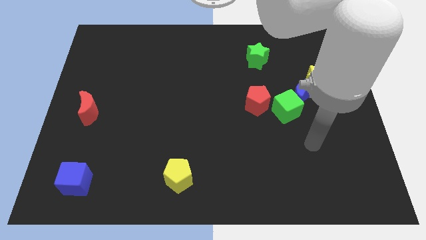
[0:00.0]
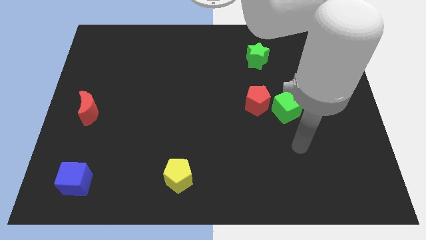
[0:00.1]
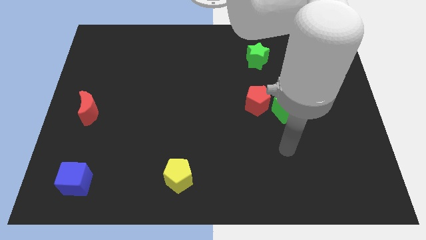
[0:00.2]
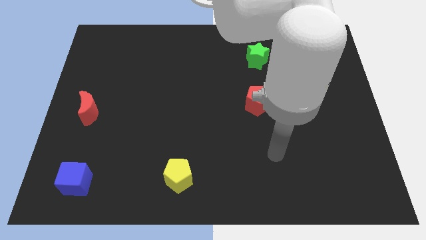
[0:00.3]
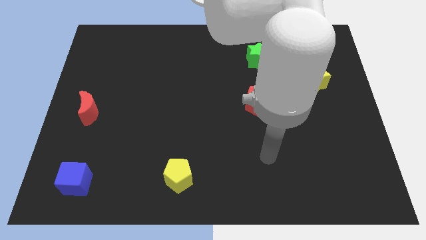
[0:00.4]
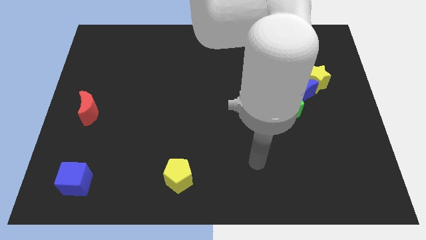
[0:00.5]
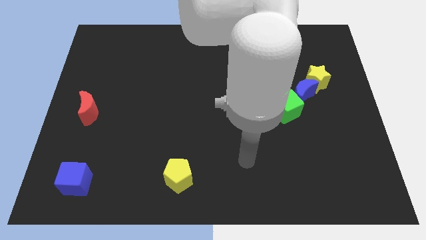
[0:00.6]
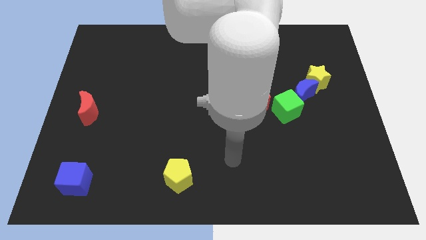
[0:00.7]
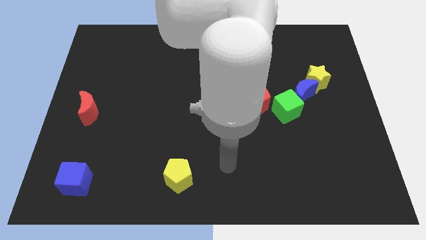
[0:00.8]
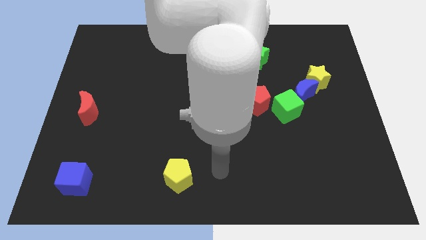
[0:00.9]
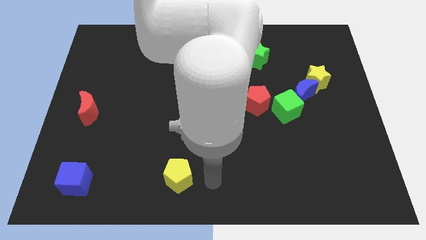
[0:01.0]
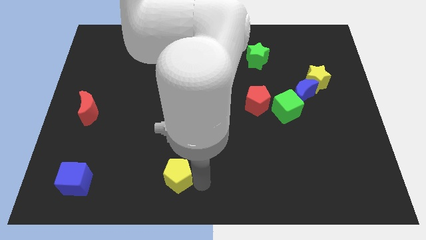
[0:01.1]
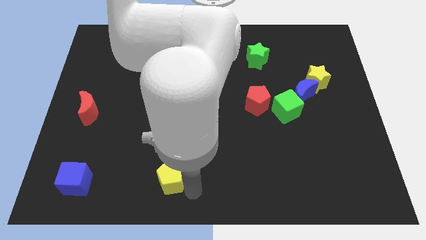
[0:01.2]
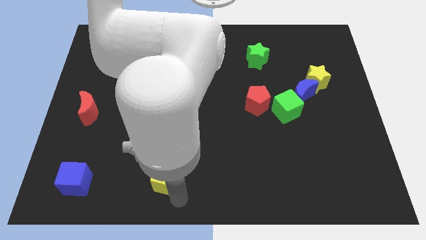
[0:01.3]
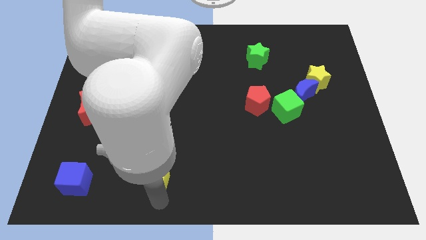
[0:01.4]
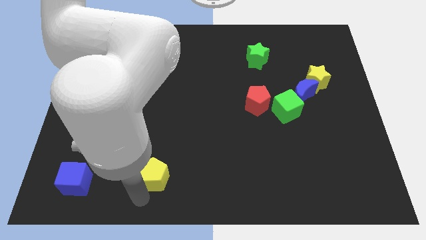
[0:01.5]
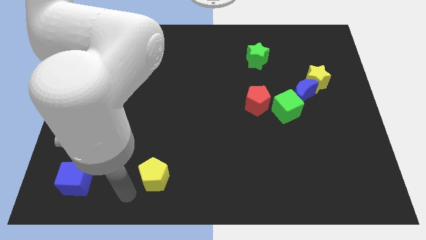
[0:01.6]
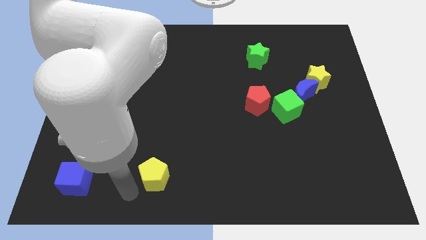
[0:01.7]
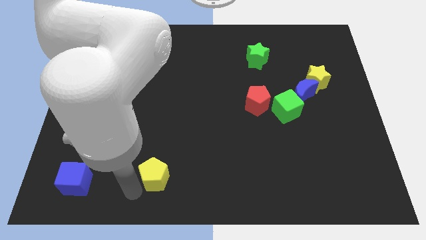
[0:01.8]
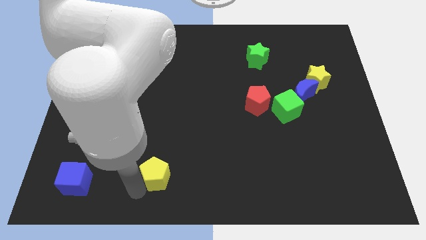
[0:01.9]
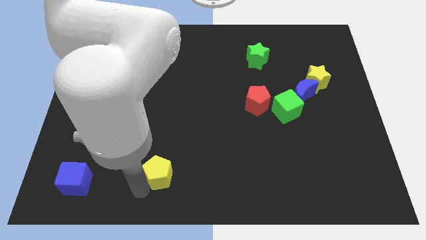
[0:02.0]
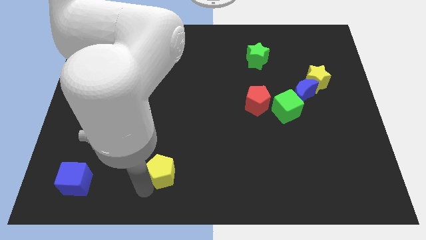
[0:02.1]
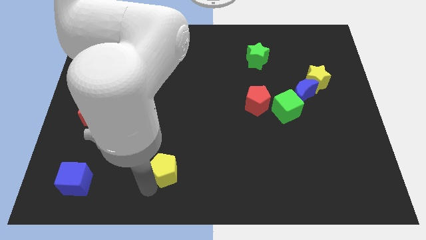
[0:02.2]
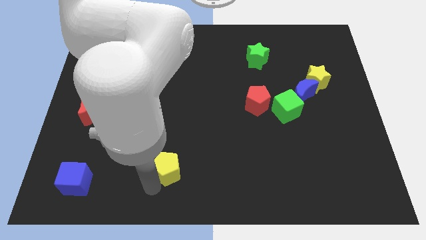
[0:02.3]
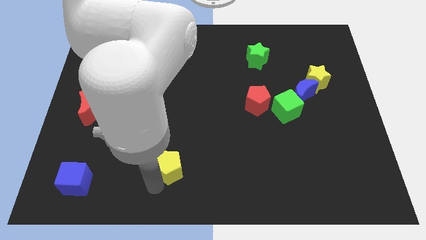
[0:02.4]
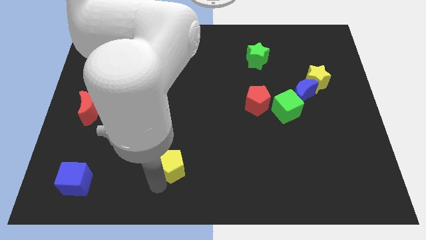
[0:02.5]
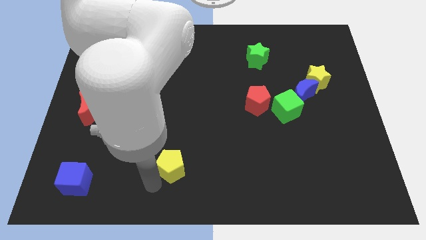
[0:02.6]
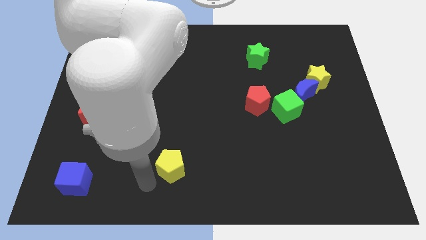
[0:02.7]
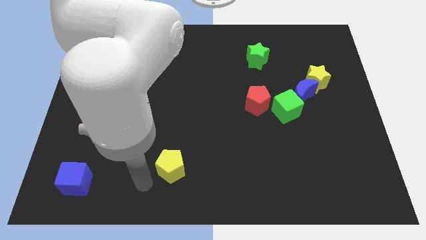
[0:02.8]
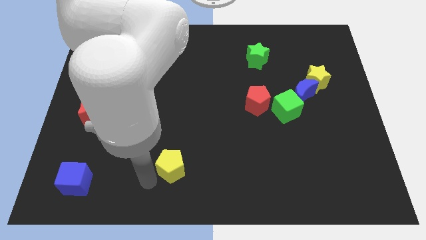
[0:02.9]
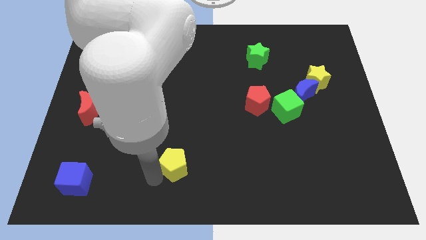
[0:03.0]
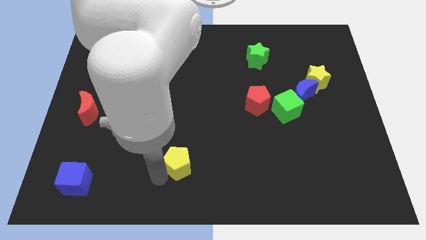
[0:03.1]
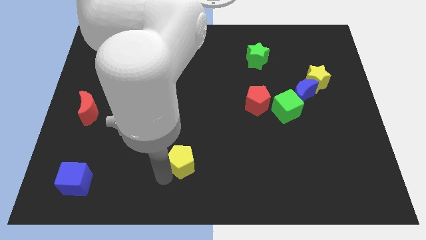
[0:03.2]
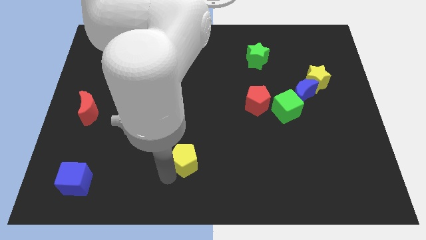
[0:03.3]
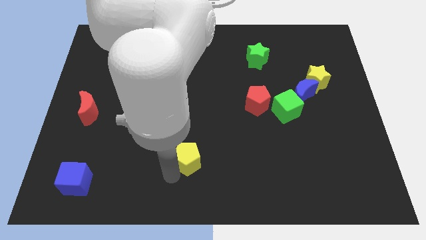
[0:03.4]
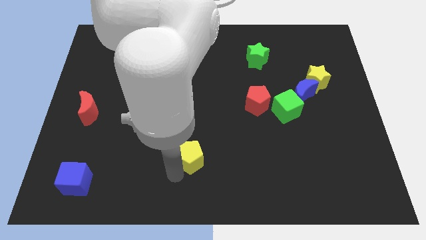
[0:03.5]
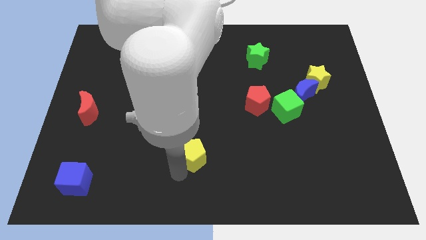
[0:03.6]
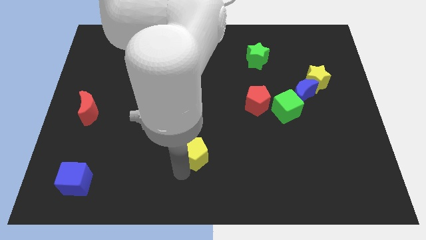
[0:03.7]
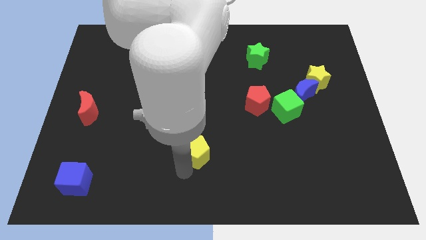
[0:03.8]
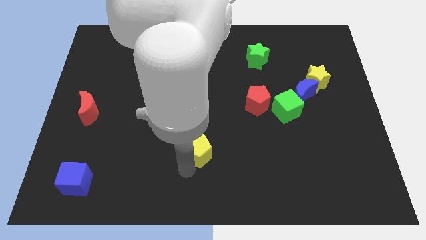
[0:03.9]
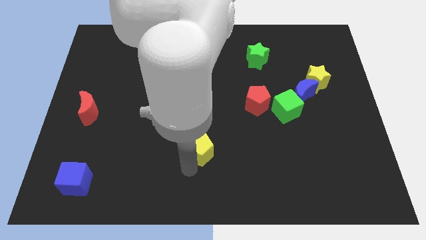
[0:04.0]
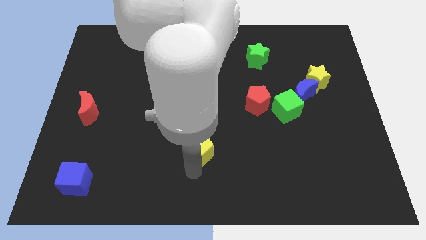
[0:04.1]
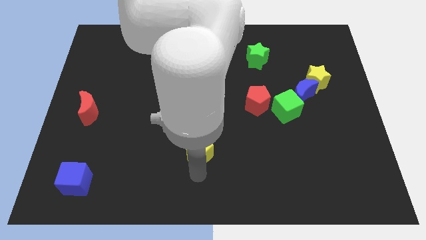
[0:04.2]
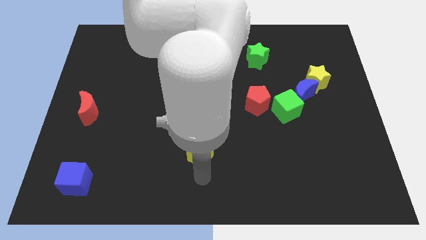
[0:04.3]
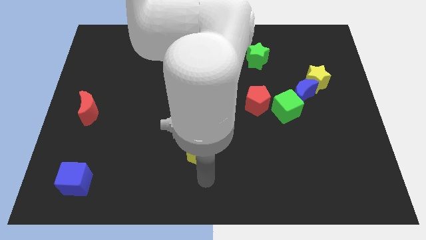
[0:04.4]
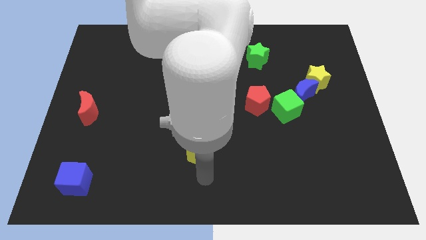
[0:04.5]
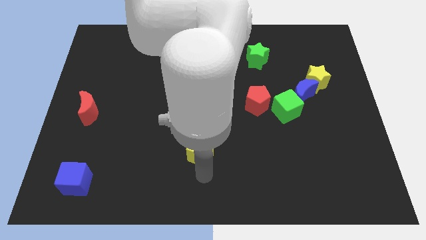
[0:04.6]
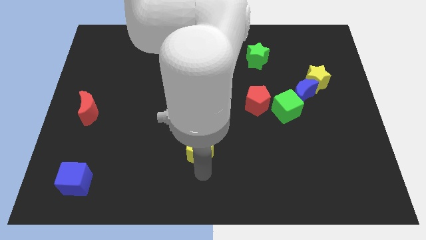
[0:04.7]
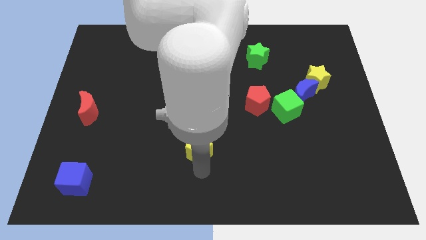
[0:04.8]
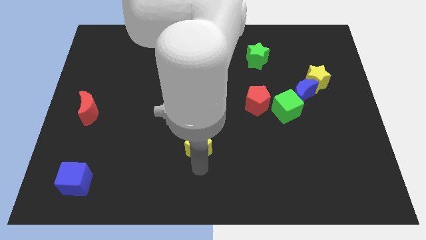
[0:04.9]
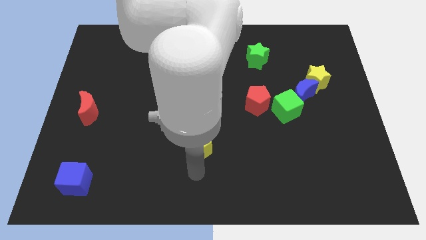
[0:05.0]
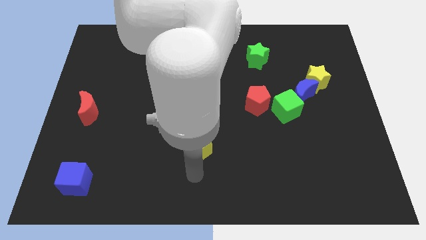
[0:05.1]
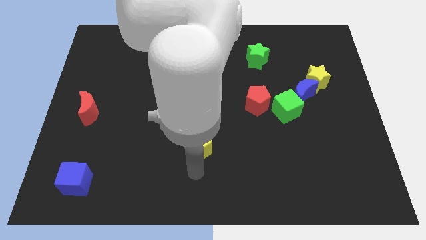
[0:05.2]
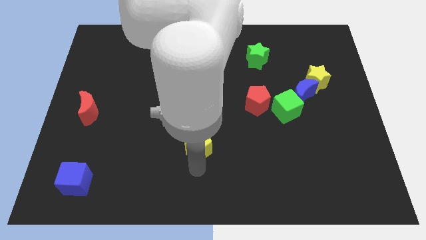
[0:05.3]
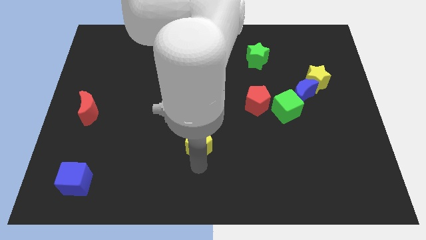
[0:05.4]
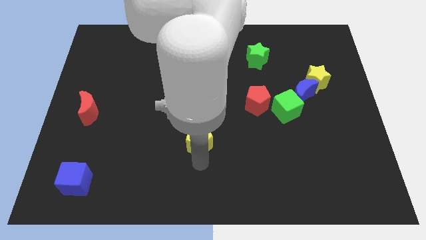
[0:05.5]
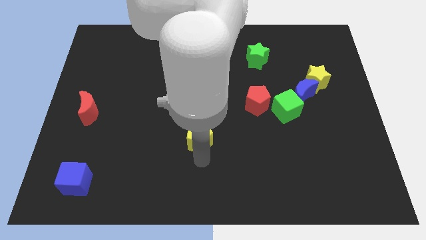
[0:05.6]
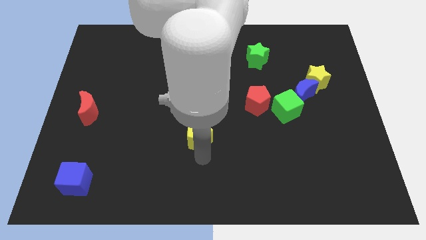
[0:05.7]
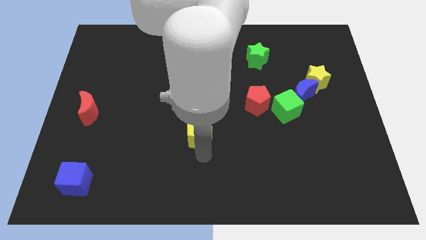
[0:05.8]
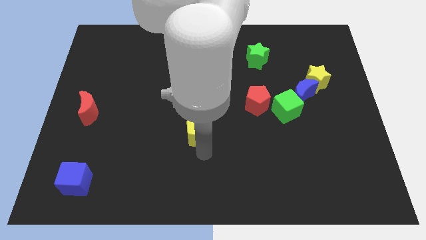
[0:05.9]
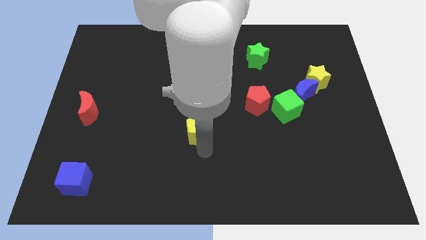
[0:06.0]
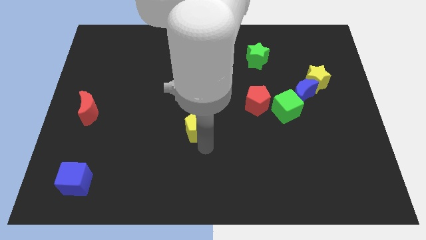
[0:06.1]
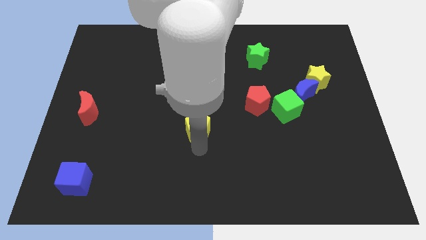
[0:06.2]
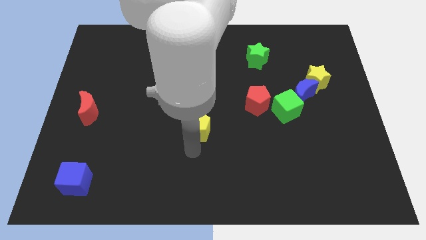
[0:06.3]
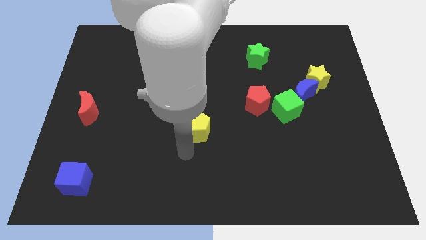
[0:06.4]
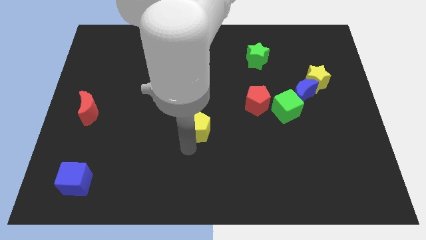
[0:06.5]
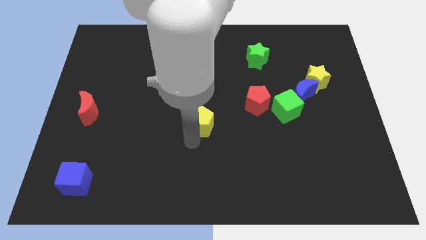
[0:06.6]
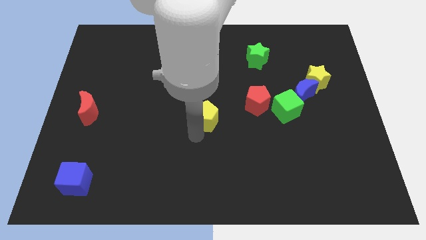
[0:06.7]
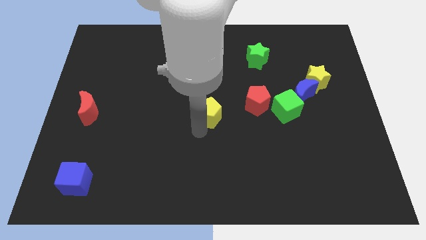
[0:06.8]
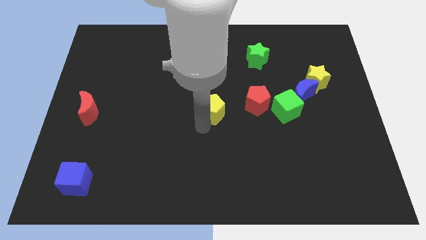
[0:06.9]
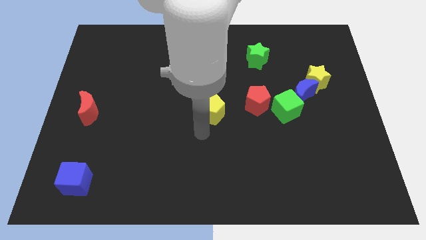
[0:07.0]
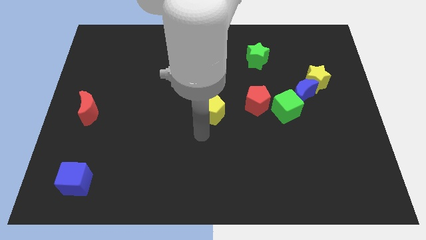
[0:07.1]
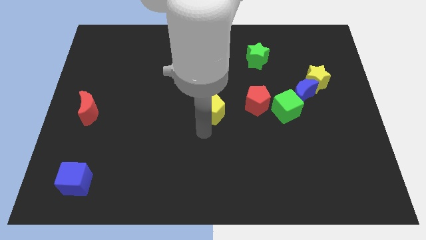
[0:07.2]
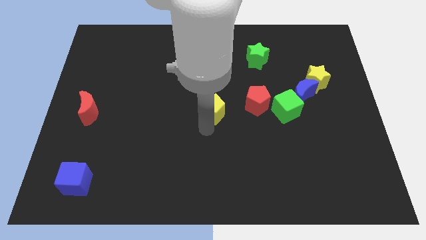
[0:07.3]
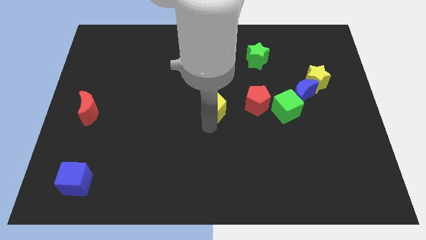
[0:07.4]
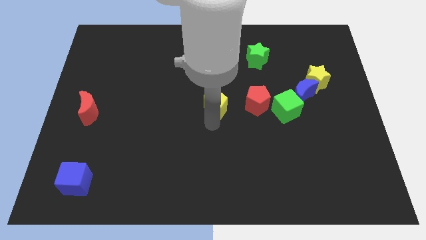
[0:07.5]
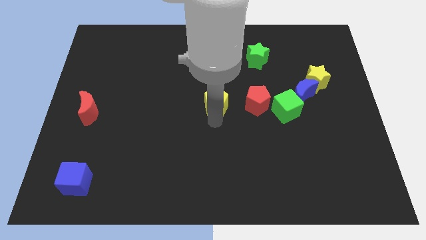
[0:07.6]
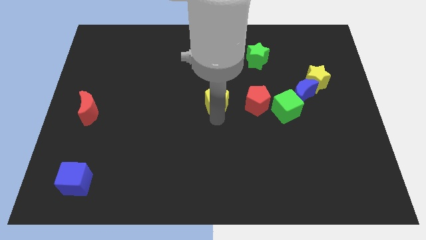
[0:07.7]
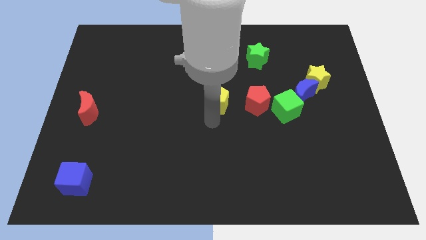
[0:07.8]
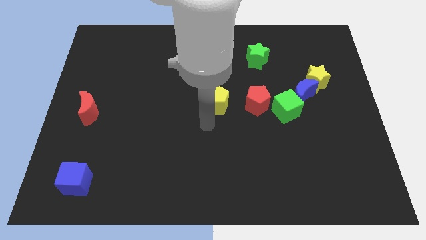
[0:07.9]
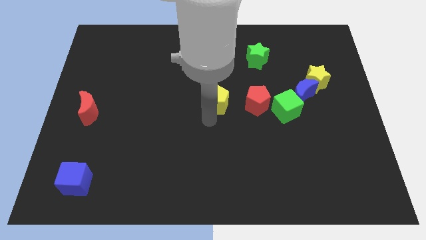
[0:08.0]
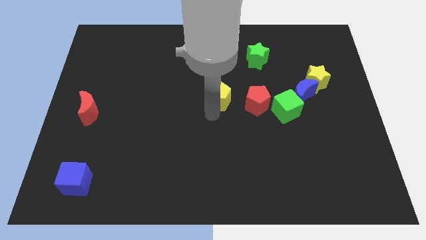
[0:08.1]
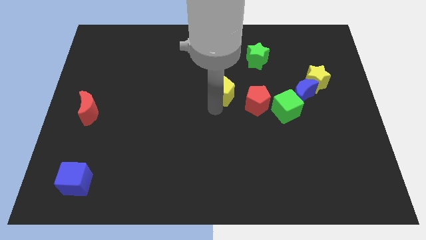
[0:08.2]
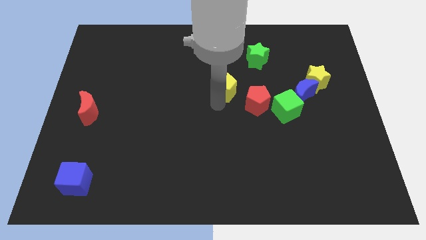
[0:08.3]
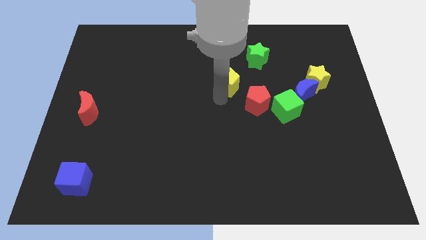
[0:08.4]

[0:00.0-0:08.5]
put the yellow pentagon to the bottom left of the green star
